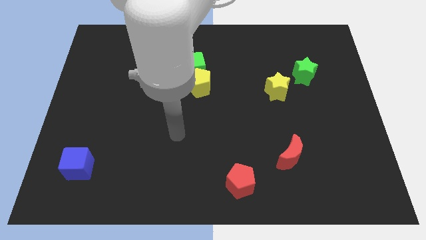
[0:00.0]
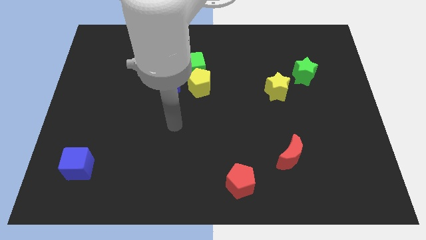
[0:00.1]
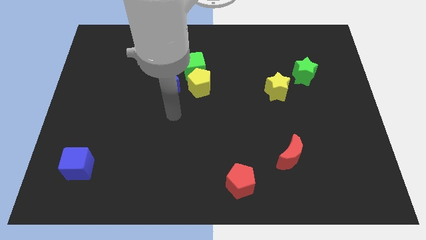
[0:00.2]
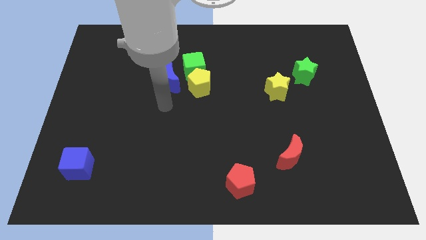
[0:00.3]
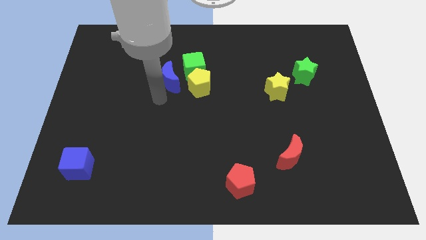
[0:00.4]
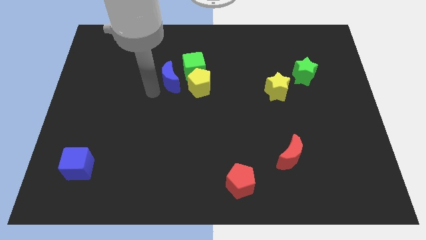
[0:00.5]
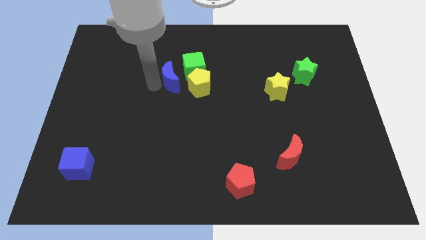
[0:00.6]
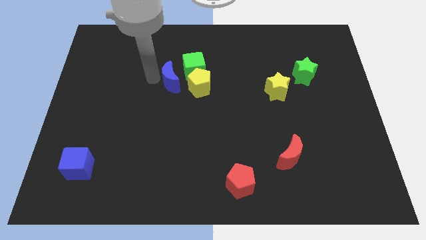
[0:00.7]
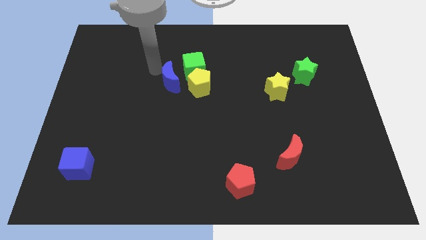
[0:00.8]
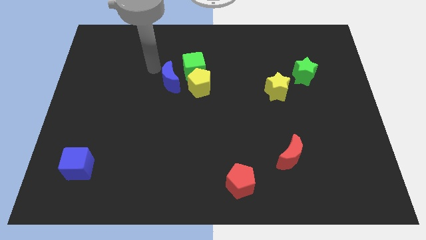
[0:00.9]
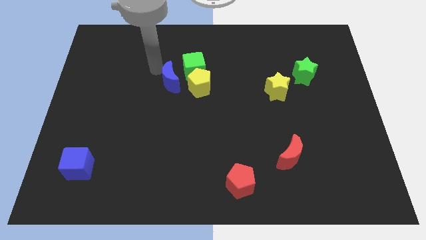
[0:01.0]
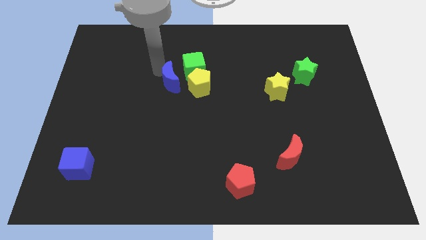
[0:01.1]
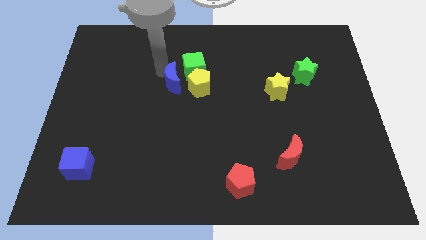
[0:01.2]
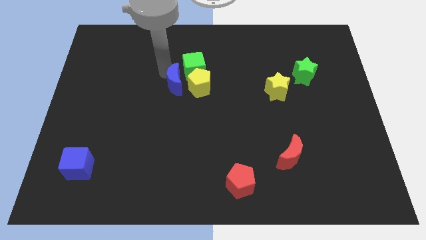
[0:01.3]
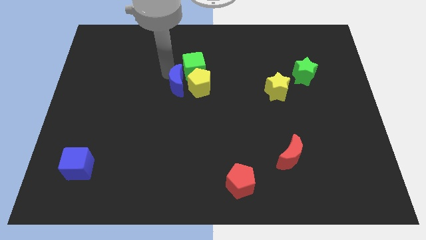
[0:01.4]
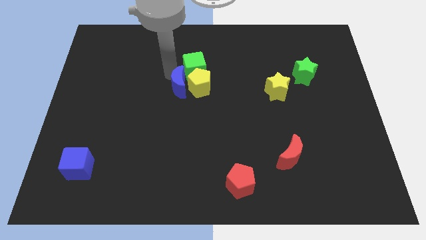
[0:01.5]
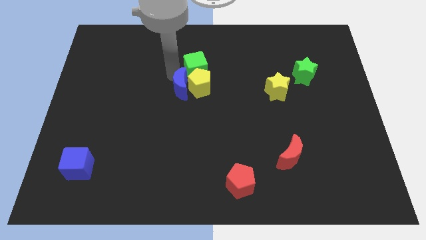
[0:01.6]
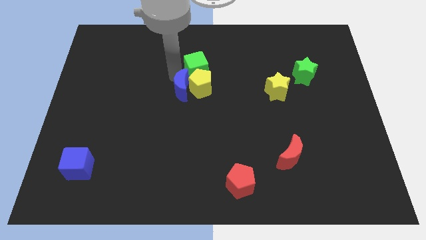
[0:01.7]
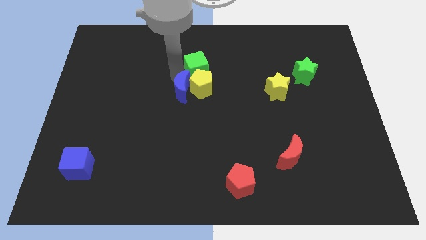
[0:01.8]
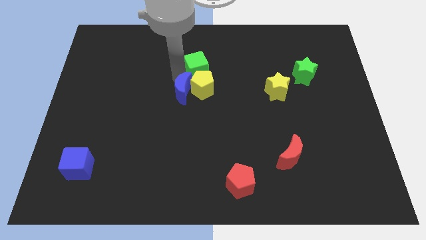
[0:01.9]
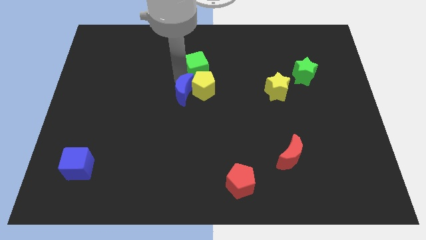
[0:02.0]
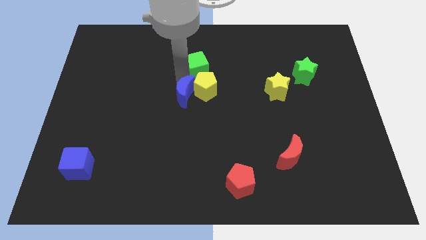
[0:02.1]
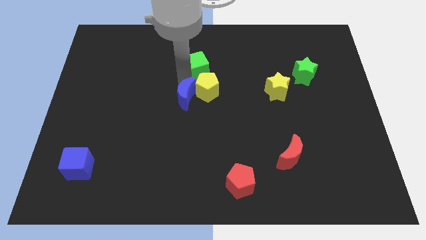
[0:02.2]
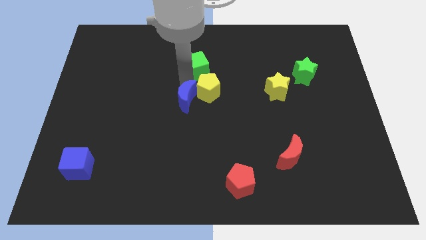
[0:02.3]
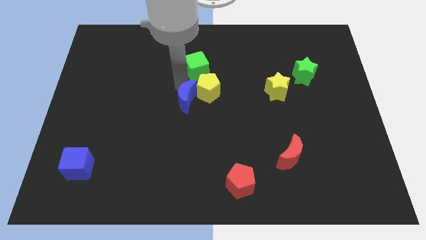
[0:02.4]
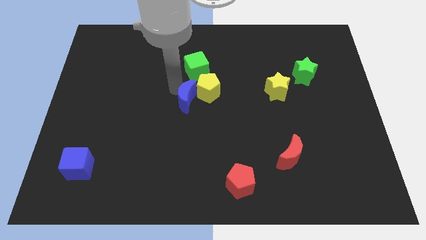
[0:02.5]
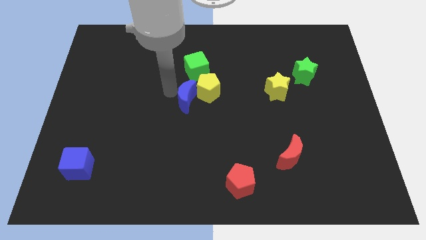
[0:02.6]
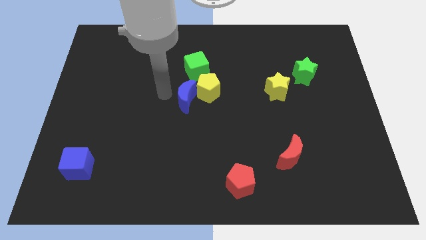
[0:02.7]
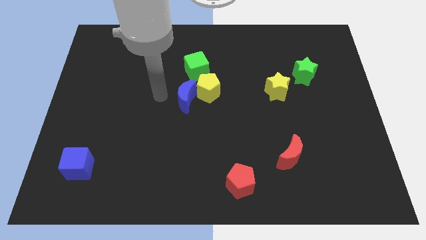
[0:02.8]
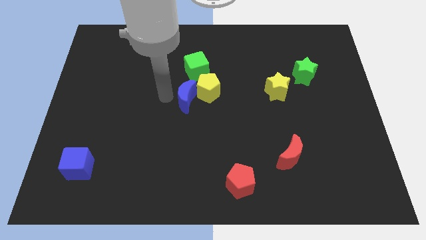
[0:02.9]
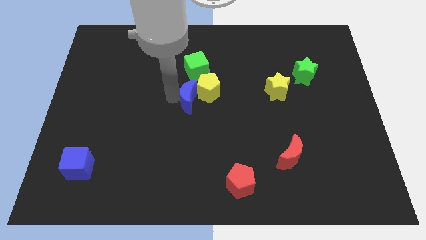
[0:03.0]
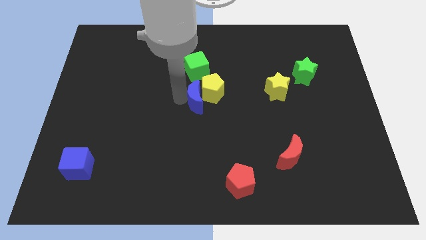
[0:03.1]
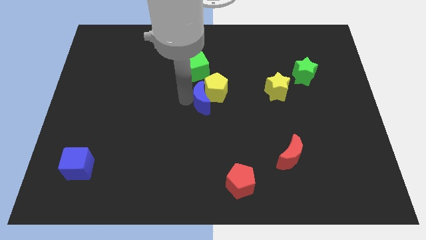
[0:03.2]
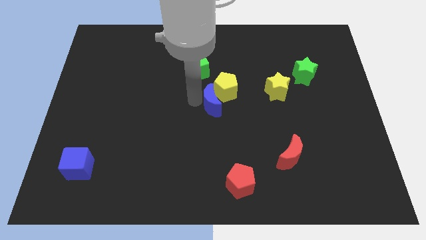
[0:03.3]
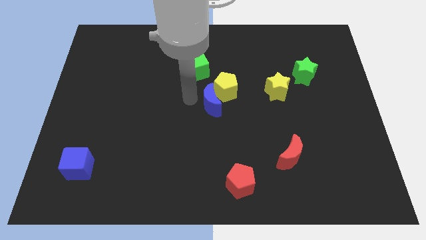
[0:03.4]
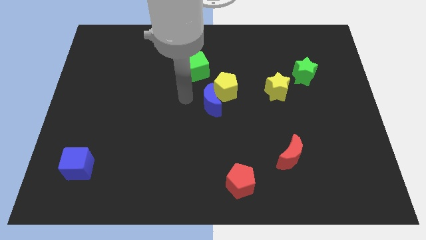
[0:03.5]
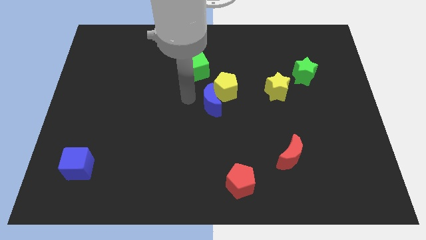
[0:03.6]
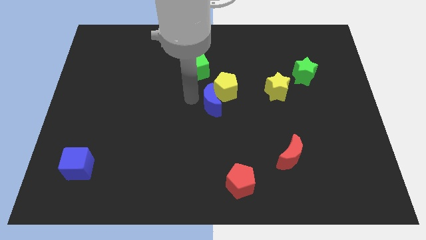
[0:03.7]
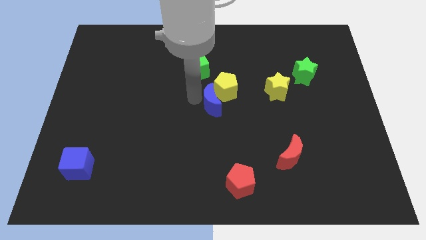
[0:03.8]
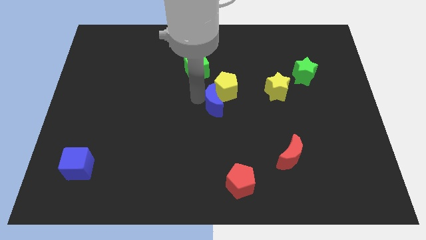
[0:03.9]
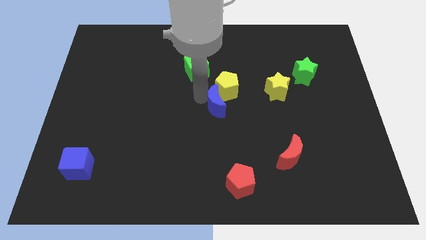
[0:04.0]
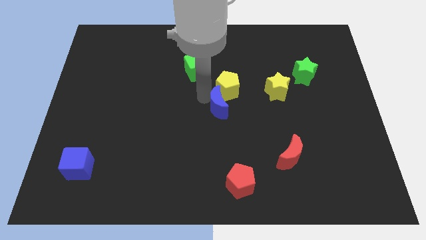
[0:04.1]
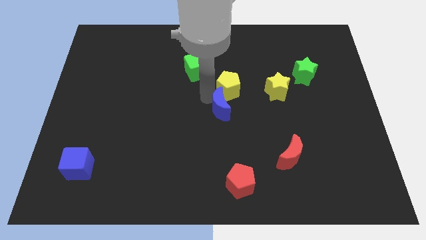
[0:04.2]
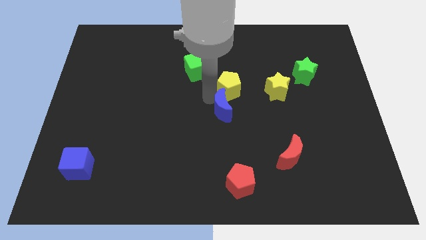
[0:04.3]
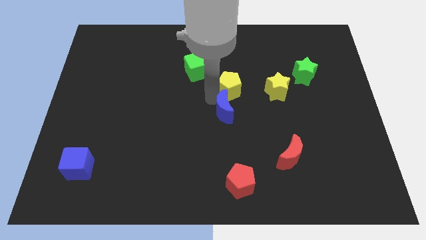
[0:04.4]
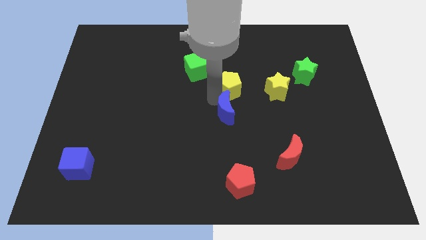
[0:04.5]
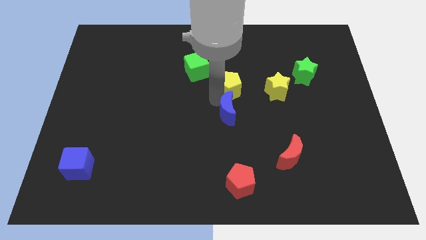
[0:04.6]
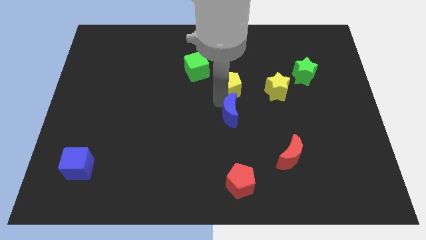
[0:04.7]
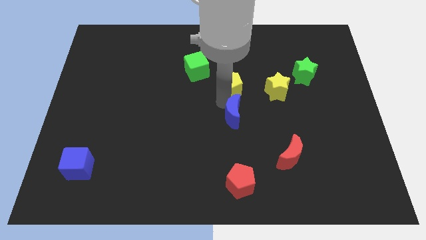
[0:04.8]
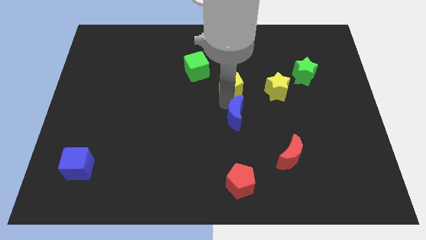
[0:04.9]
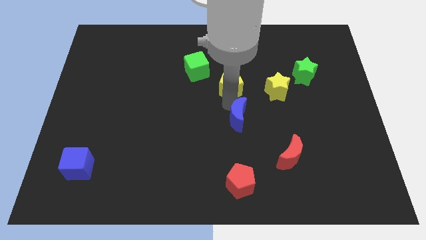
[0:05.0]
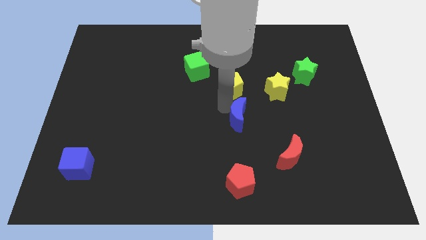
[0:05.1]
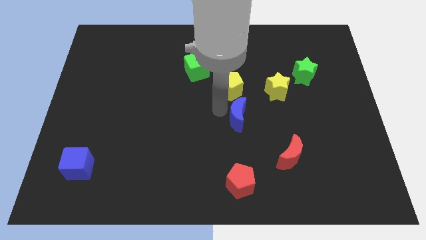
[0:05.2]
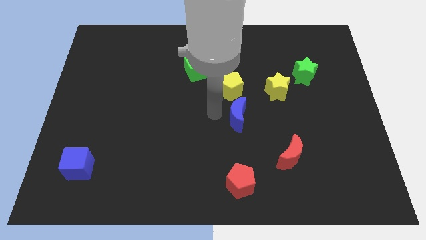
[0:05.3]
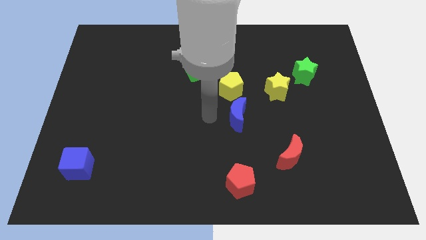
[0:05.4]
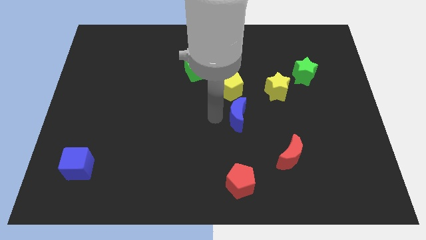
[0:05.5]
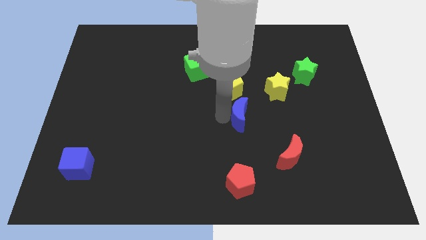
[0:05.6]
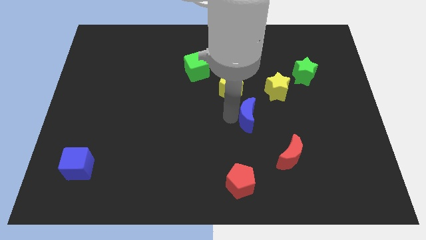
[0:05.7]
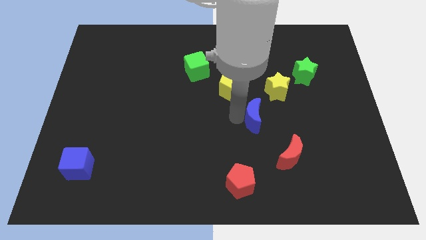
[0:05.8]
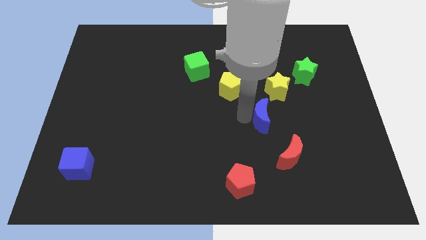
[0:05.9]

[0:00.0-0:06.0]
move the blue moon to the bottom side of the yellow star

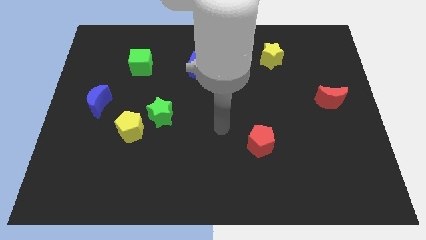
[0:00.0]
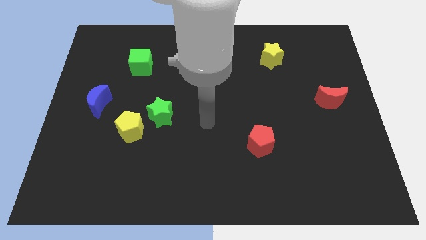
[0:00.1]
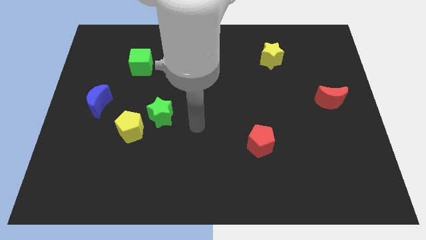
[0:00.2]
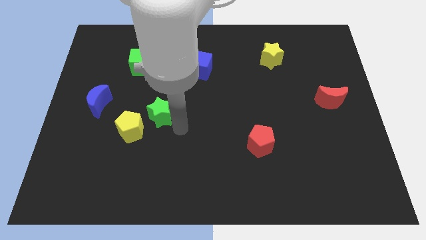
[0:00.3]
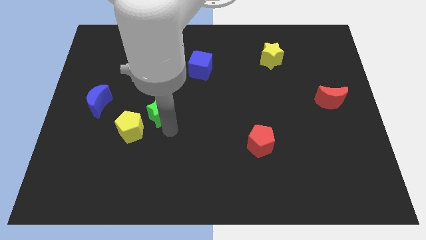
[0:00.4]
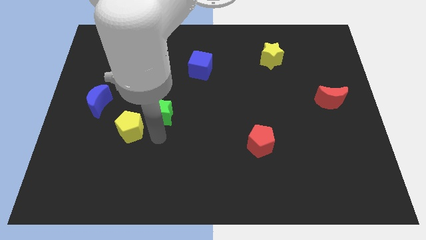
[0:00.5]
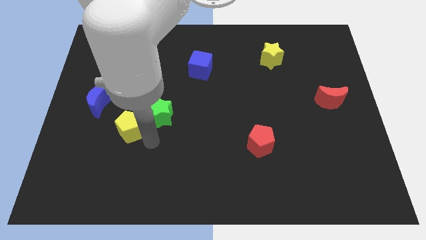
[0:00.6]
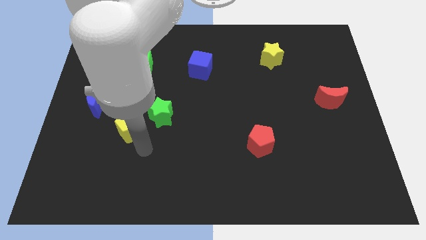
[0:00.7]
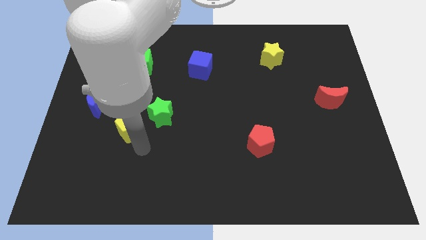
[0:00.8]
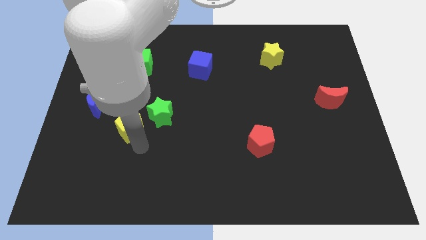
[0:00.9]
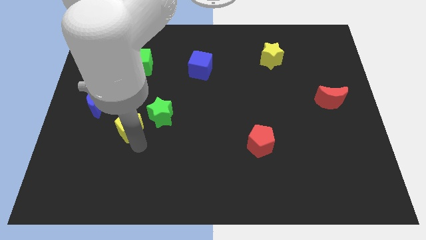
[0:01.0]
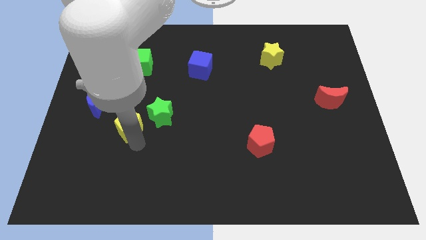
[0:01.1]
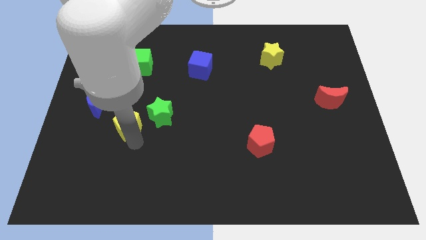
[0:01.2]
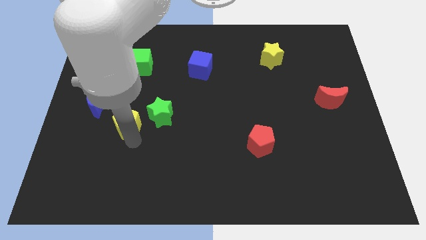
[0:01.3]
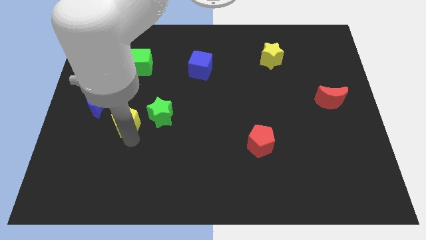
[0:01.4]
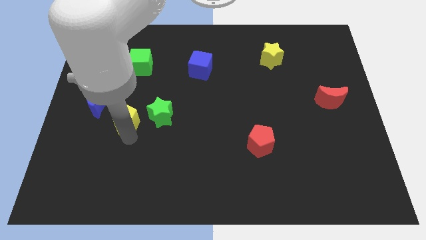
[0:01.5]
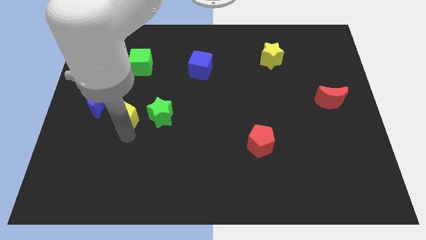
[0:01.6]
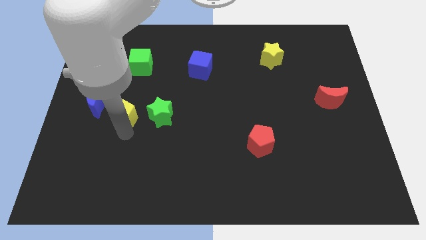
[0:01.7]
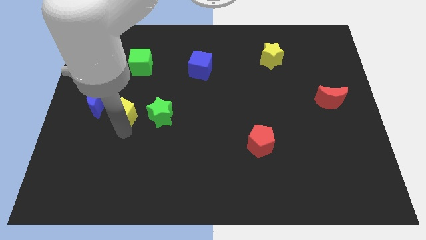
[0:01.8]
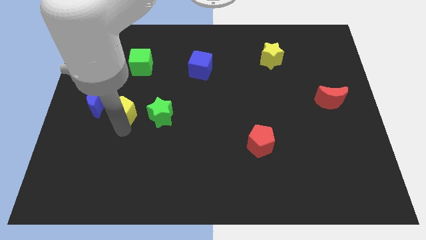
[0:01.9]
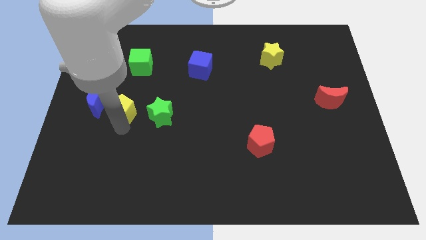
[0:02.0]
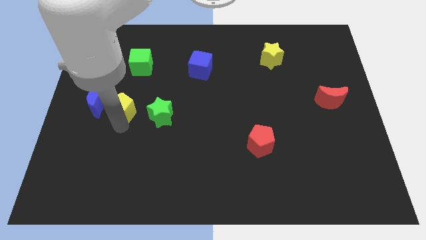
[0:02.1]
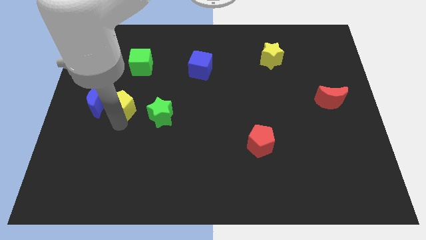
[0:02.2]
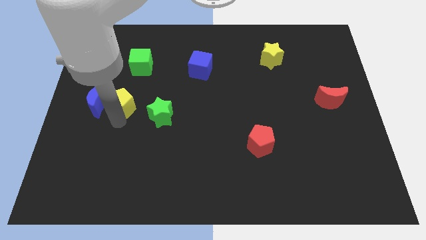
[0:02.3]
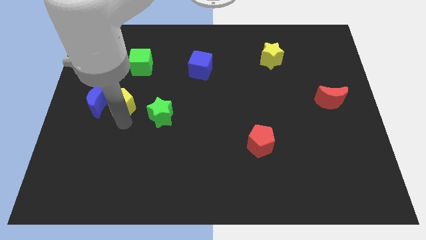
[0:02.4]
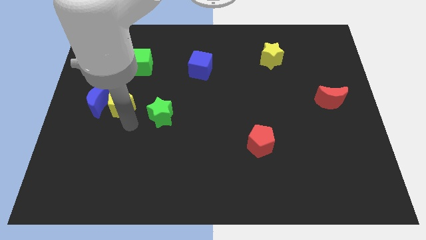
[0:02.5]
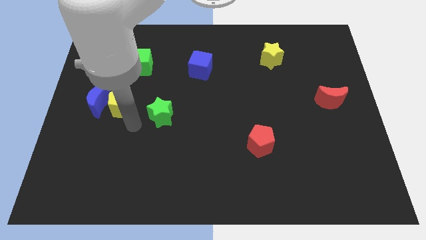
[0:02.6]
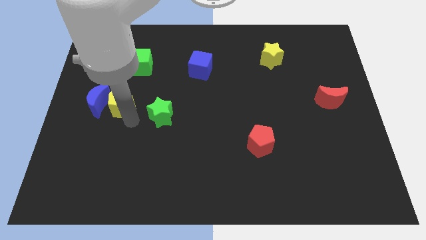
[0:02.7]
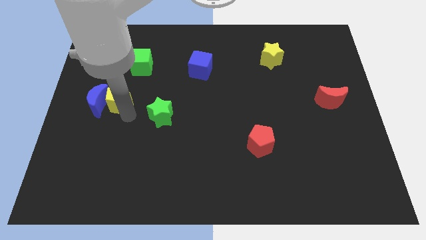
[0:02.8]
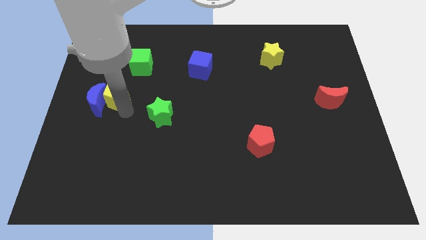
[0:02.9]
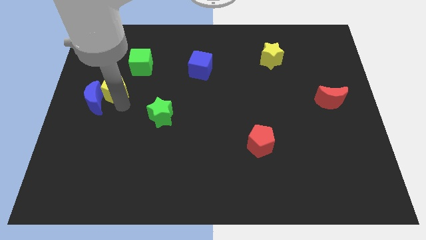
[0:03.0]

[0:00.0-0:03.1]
put the yellow pentagon above the blue moon
